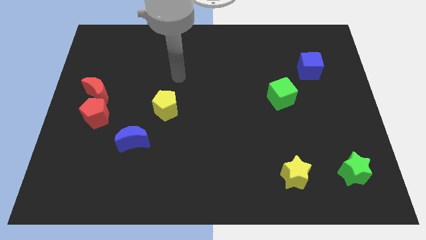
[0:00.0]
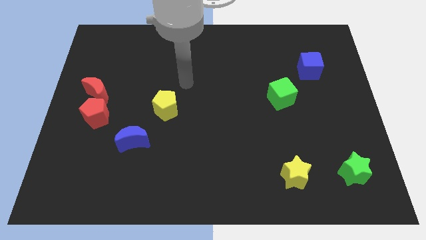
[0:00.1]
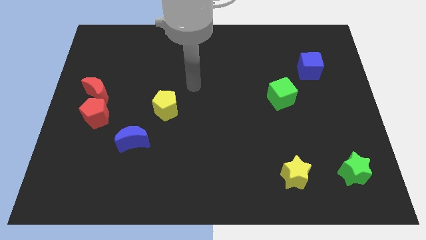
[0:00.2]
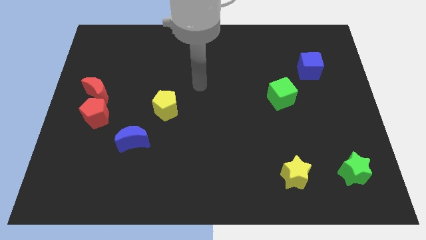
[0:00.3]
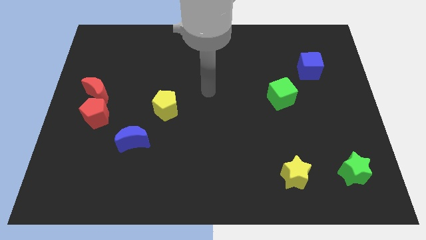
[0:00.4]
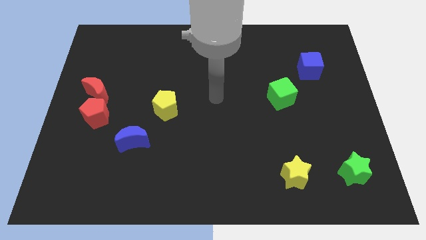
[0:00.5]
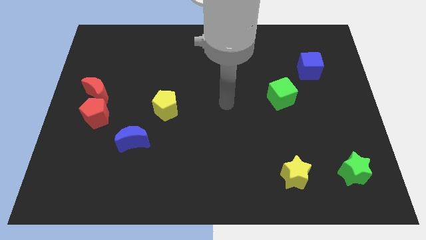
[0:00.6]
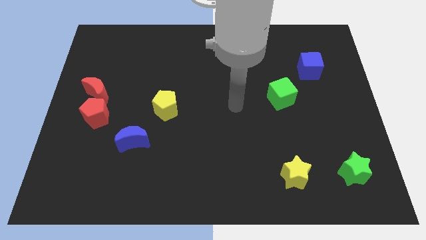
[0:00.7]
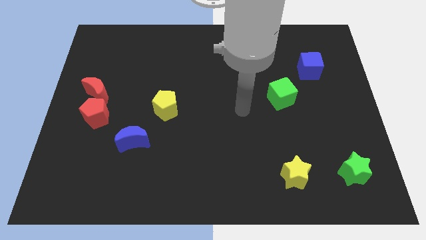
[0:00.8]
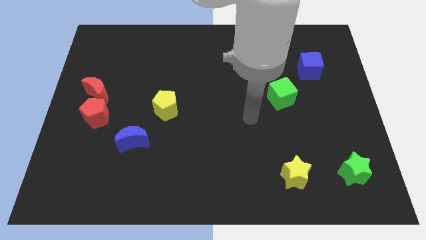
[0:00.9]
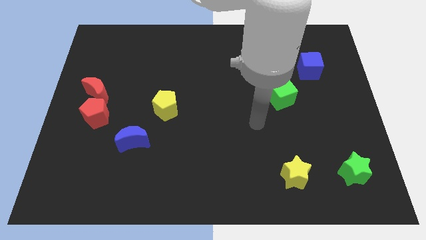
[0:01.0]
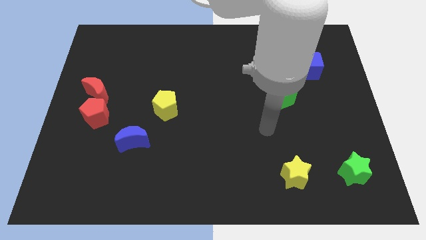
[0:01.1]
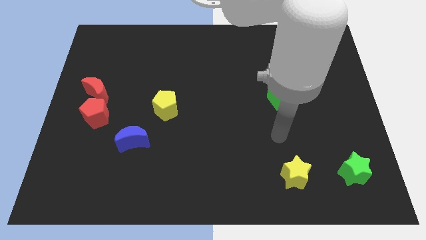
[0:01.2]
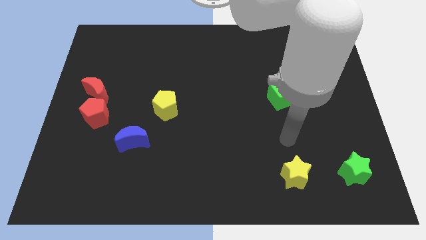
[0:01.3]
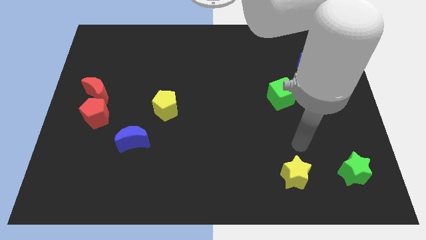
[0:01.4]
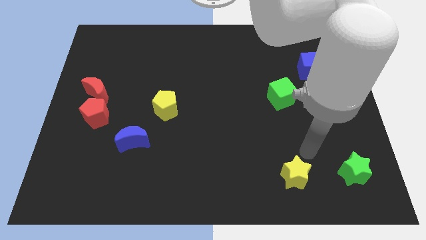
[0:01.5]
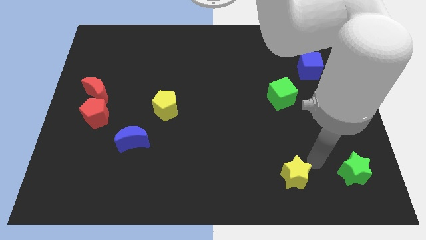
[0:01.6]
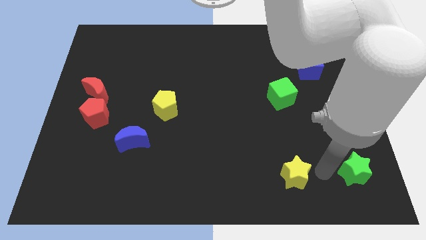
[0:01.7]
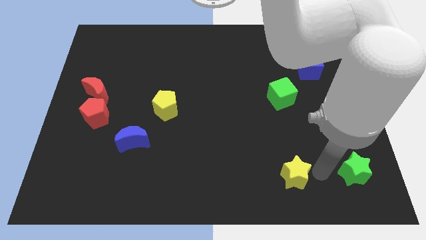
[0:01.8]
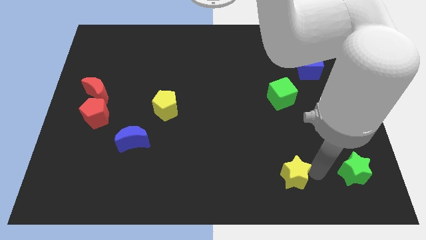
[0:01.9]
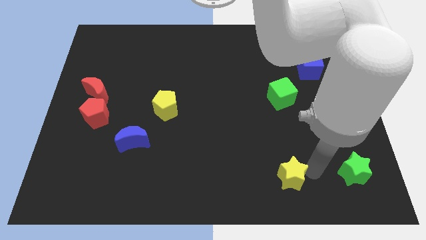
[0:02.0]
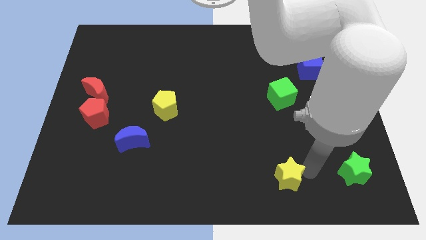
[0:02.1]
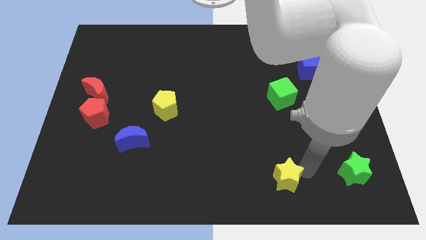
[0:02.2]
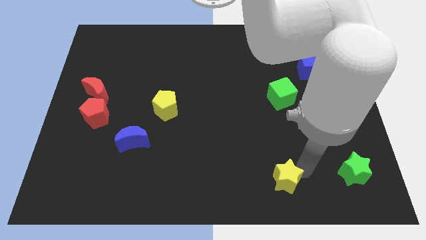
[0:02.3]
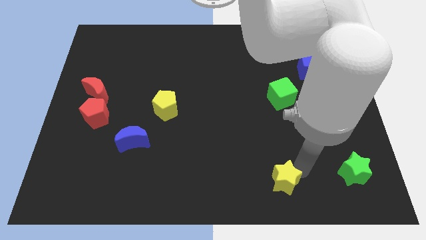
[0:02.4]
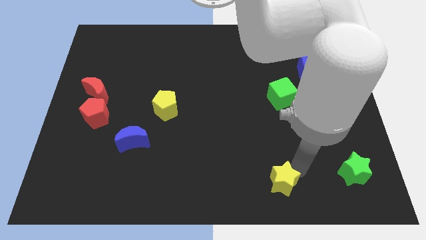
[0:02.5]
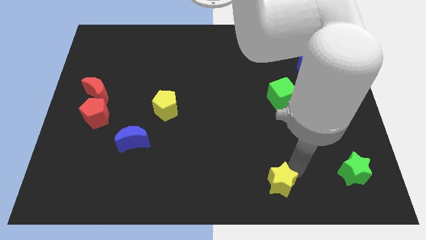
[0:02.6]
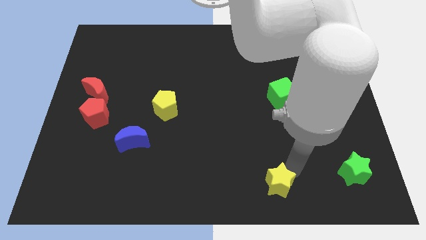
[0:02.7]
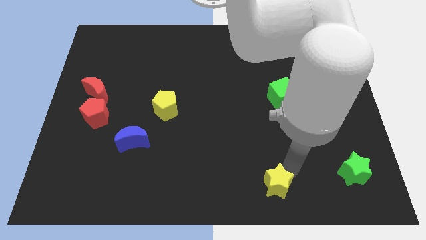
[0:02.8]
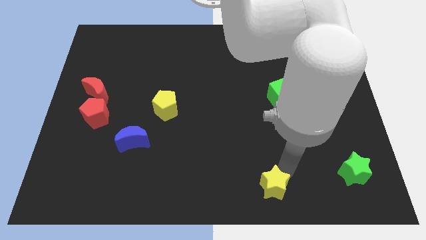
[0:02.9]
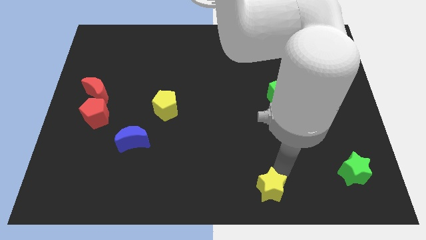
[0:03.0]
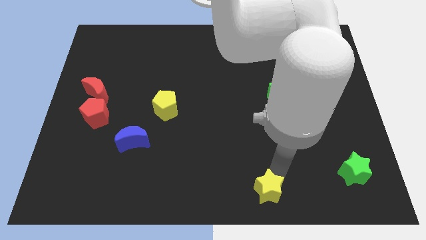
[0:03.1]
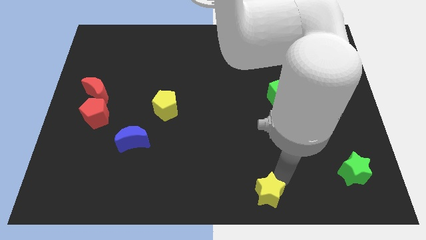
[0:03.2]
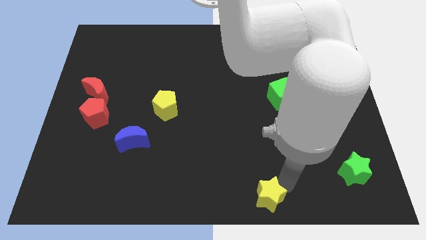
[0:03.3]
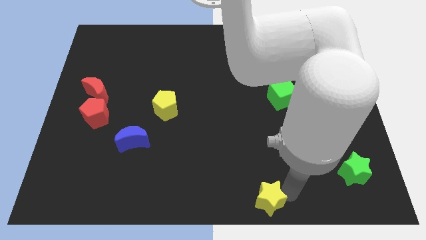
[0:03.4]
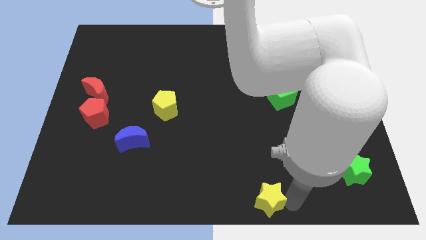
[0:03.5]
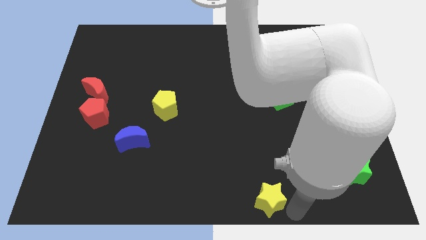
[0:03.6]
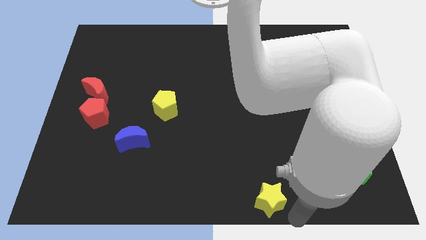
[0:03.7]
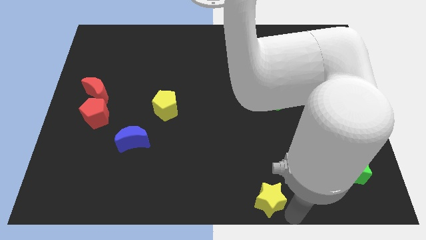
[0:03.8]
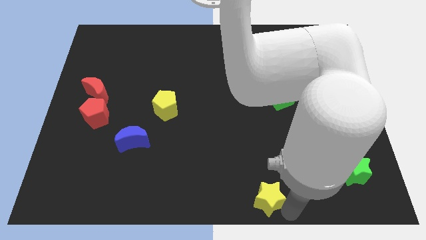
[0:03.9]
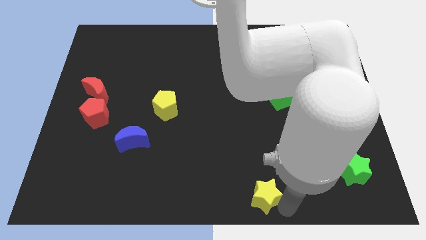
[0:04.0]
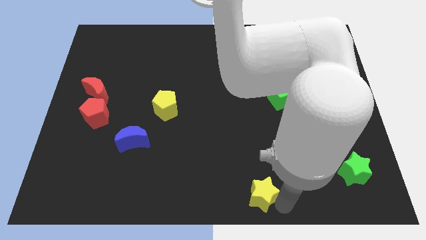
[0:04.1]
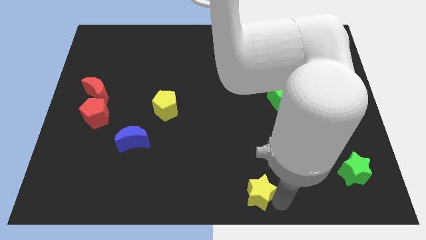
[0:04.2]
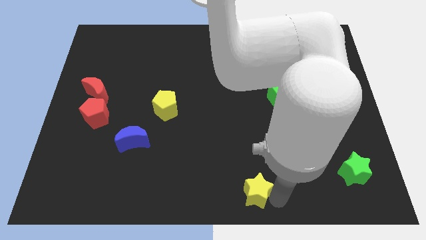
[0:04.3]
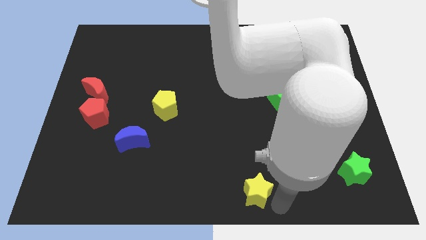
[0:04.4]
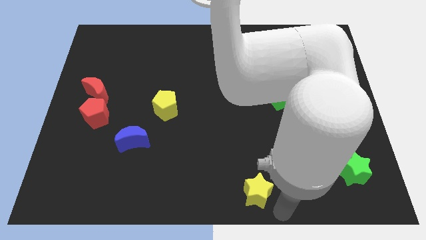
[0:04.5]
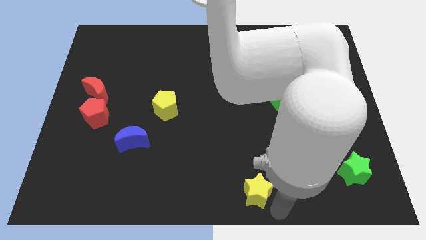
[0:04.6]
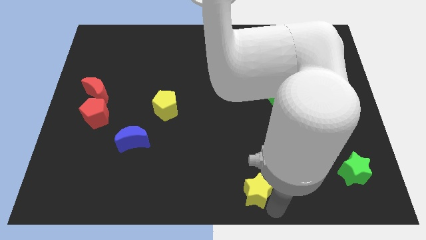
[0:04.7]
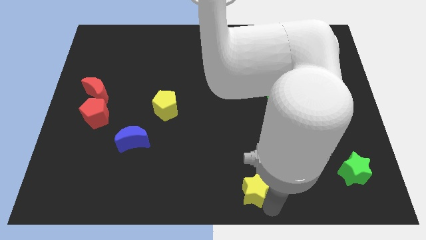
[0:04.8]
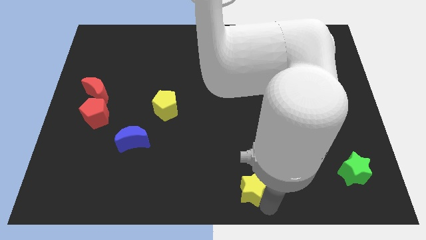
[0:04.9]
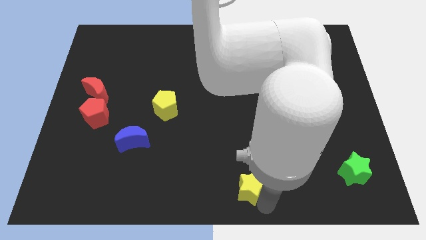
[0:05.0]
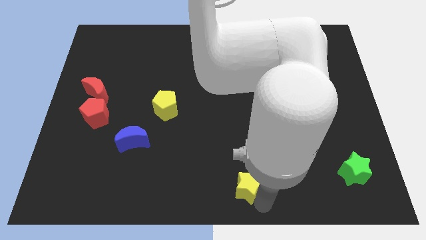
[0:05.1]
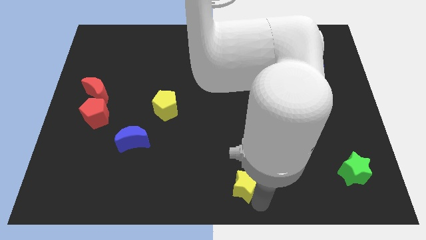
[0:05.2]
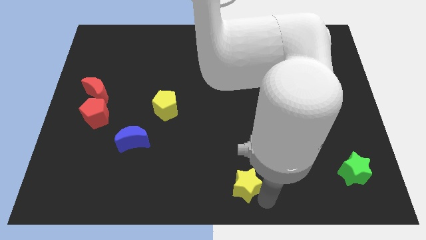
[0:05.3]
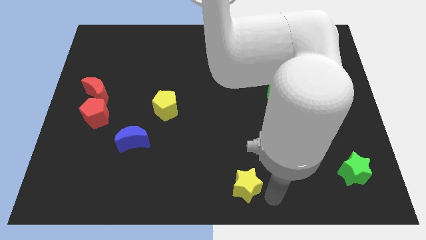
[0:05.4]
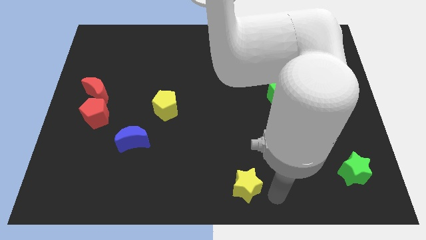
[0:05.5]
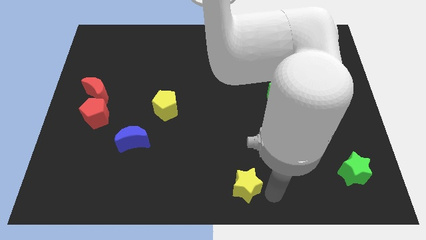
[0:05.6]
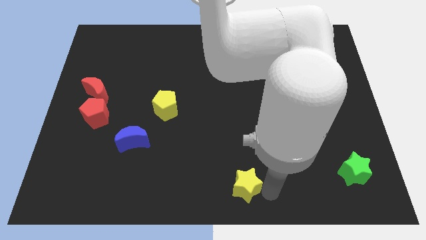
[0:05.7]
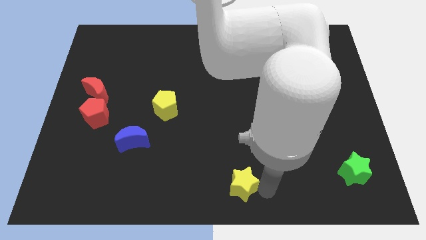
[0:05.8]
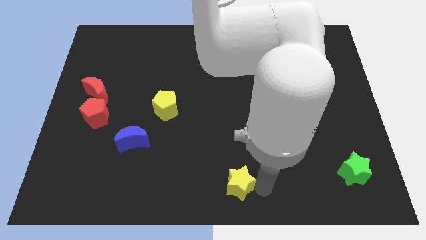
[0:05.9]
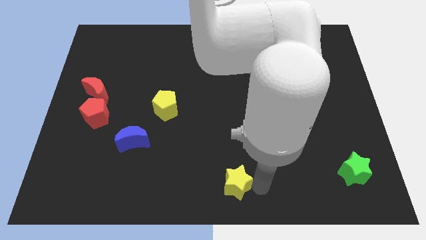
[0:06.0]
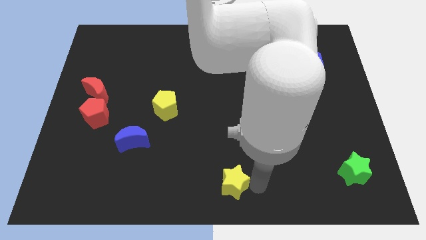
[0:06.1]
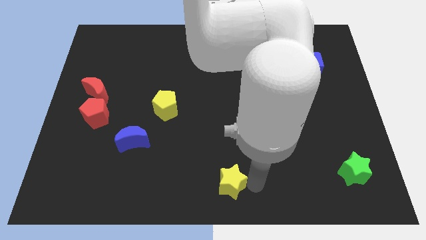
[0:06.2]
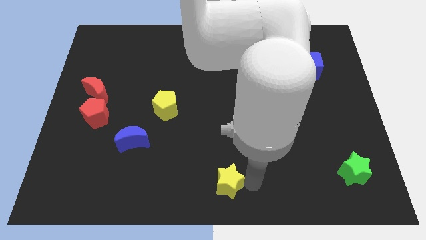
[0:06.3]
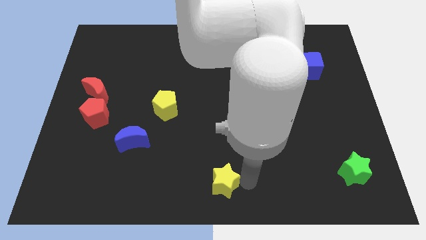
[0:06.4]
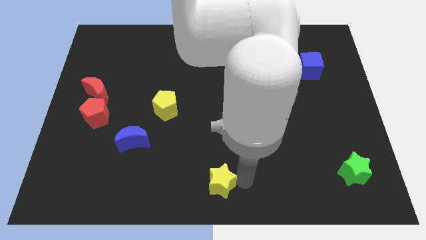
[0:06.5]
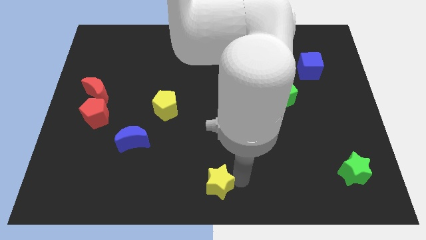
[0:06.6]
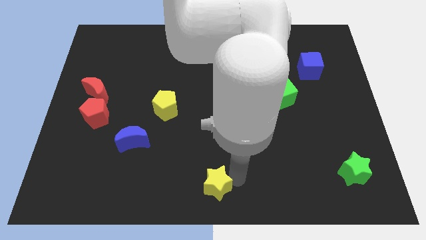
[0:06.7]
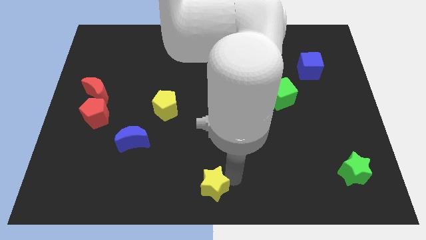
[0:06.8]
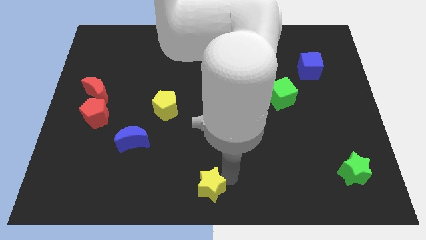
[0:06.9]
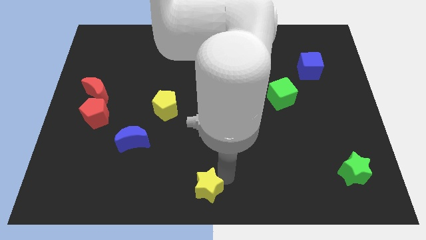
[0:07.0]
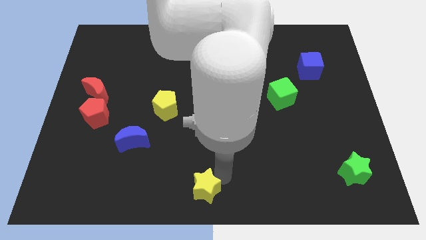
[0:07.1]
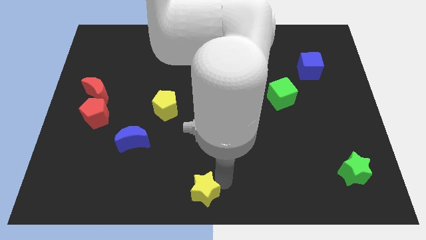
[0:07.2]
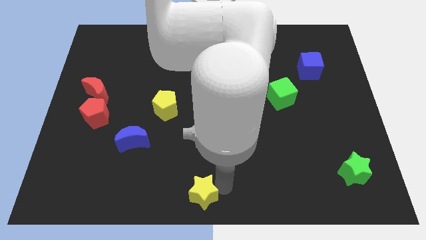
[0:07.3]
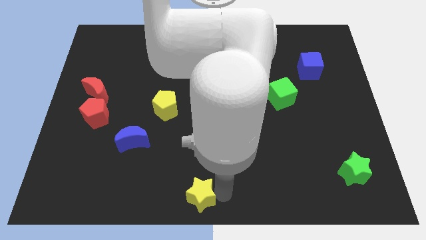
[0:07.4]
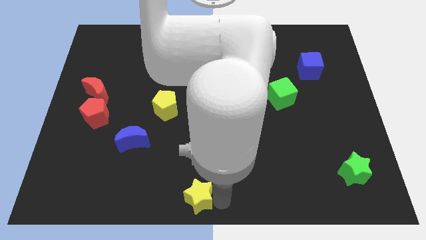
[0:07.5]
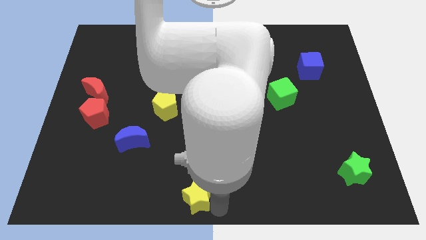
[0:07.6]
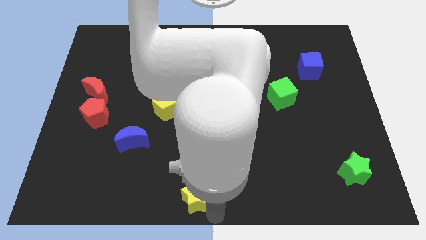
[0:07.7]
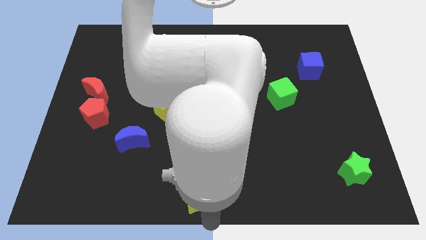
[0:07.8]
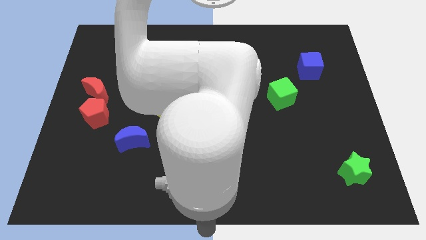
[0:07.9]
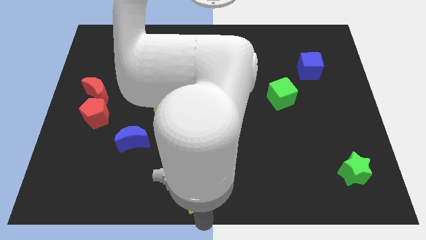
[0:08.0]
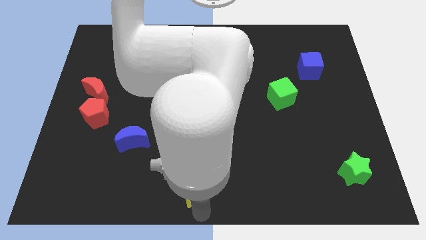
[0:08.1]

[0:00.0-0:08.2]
move the yellow star left
